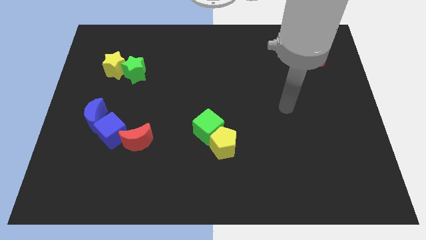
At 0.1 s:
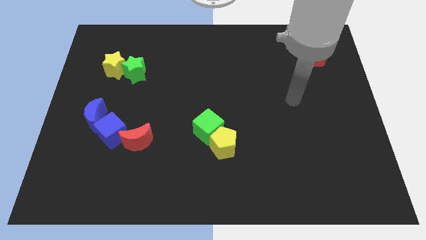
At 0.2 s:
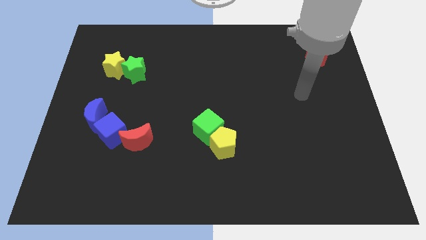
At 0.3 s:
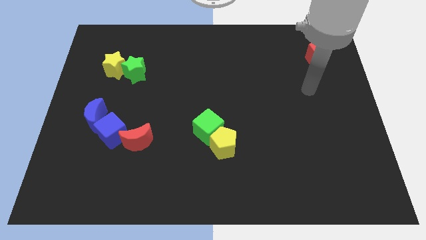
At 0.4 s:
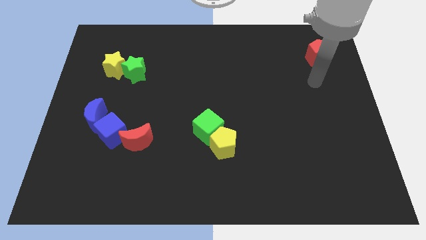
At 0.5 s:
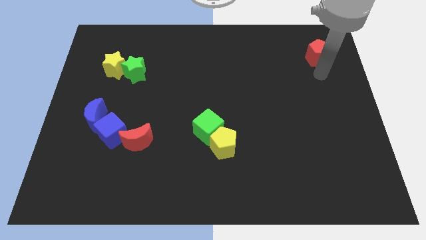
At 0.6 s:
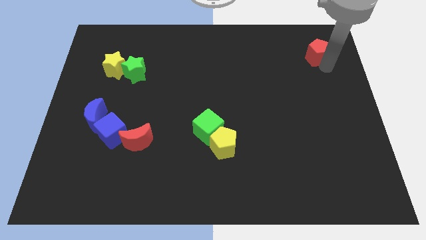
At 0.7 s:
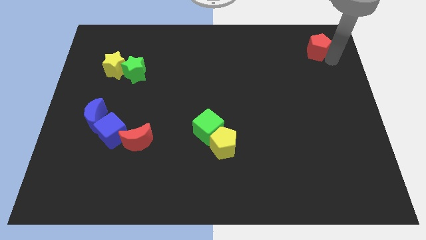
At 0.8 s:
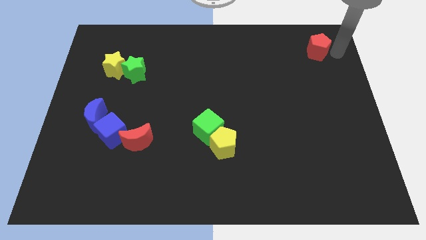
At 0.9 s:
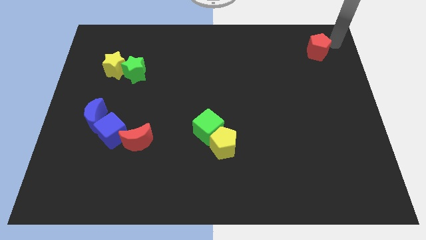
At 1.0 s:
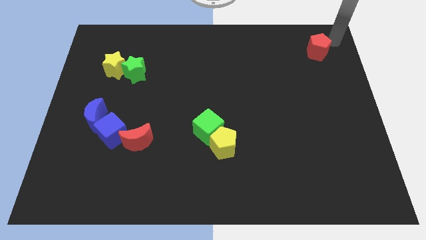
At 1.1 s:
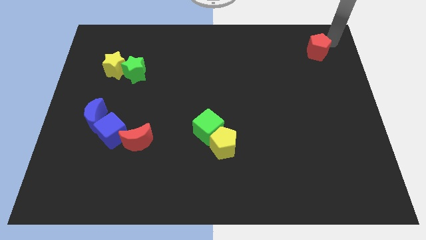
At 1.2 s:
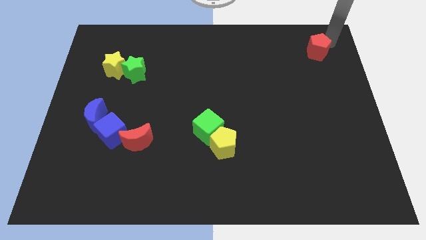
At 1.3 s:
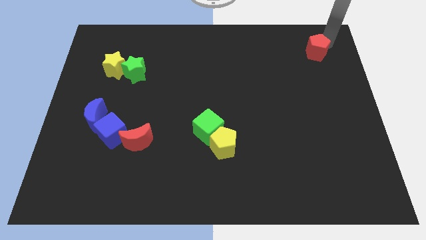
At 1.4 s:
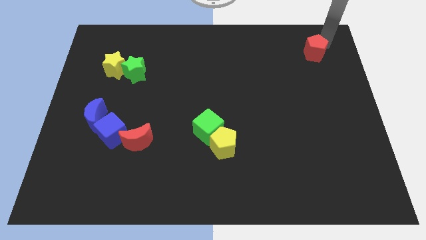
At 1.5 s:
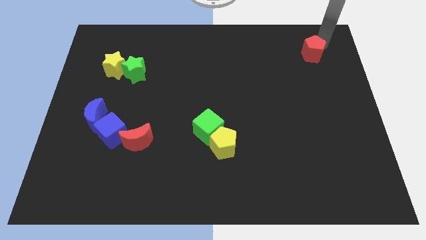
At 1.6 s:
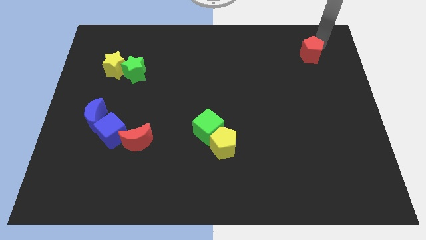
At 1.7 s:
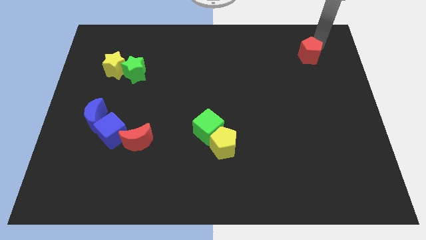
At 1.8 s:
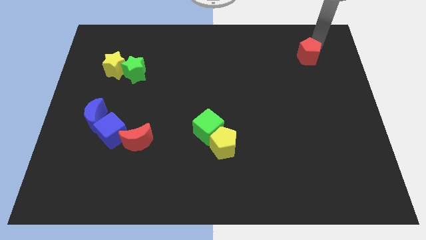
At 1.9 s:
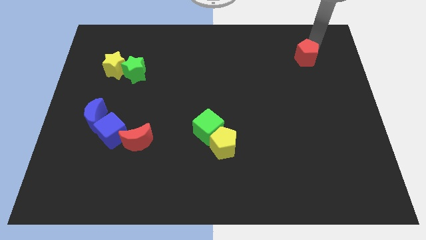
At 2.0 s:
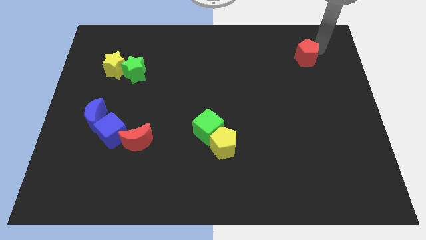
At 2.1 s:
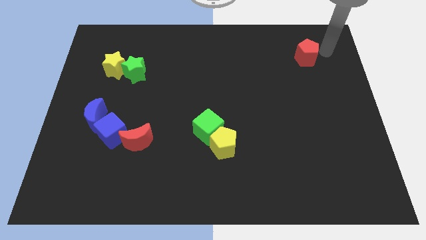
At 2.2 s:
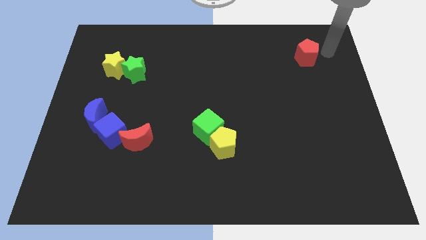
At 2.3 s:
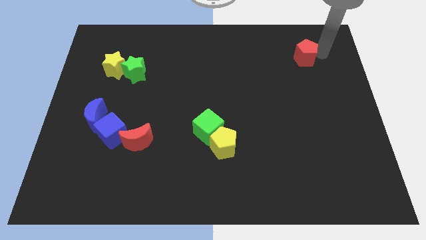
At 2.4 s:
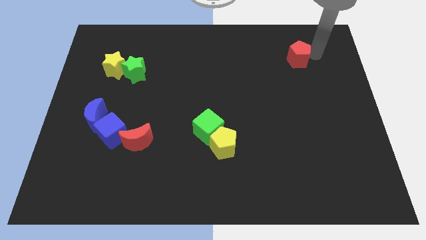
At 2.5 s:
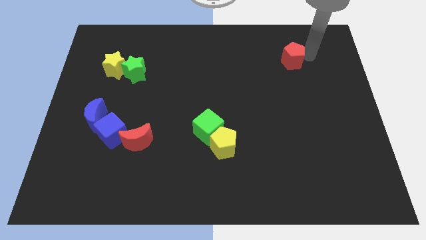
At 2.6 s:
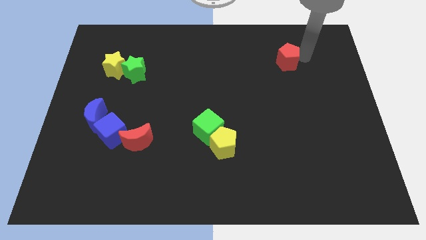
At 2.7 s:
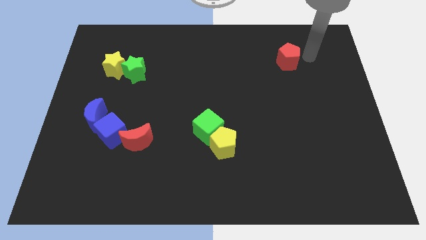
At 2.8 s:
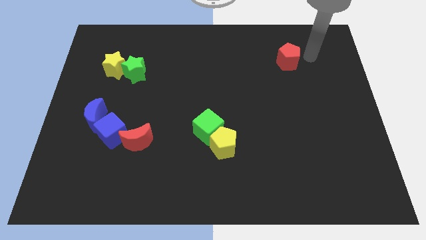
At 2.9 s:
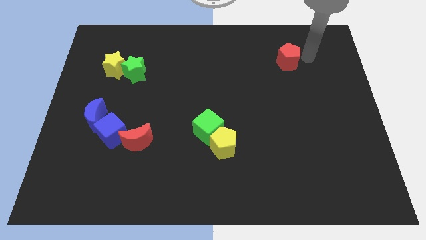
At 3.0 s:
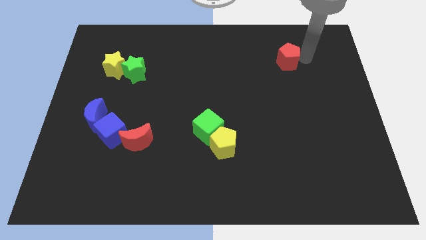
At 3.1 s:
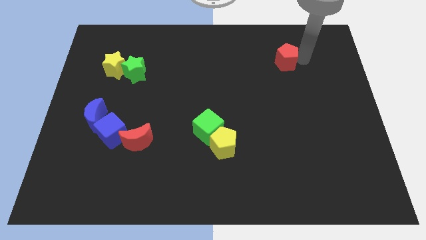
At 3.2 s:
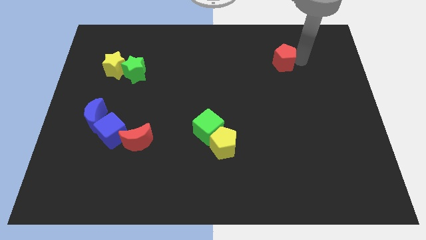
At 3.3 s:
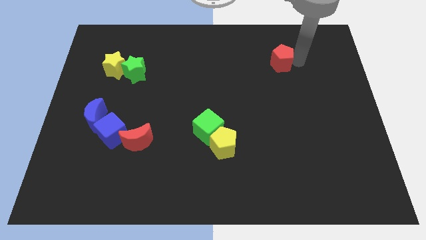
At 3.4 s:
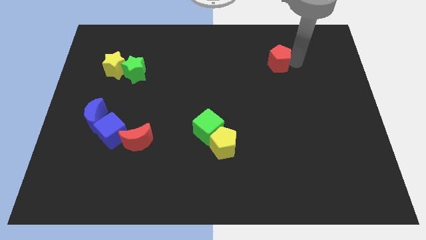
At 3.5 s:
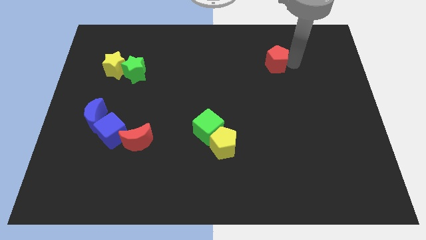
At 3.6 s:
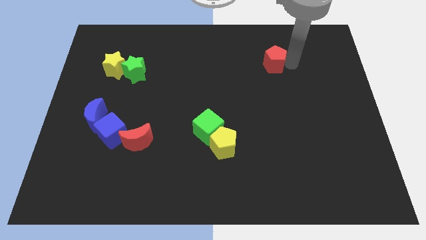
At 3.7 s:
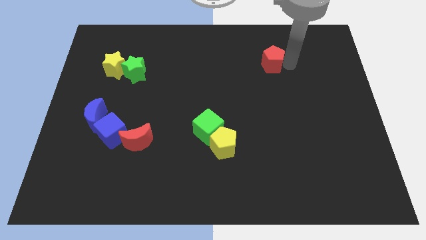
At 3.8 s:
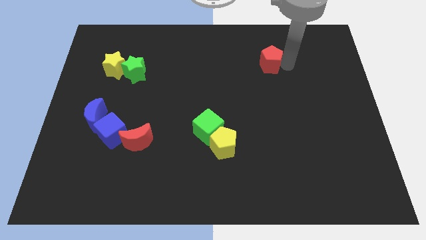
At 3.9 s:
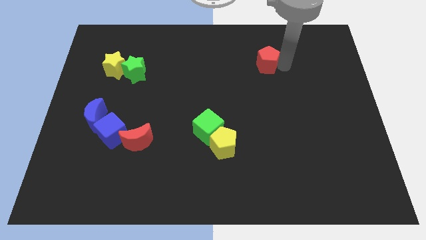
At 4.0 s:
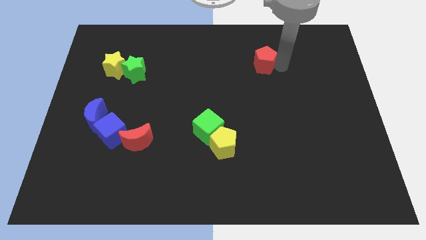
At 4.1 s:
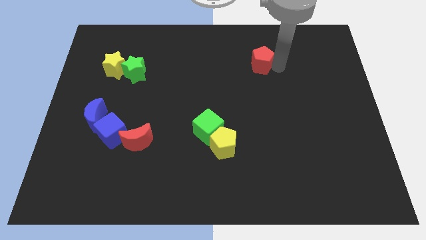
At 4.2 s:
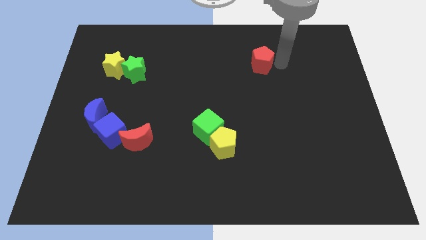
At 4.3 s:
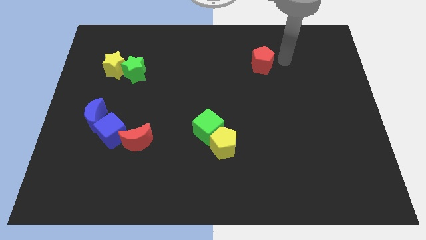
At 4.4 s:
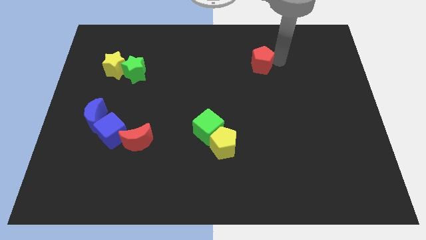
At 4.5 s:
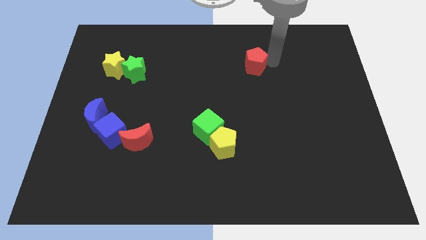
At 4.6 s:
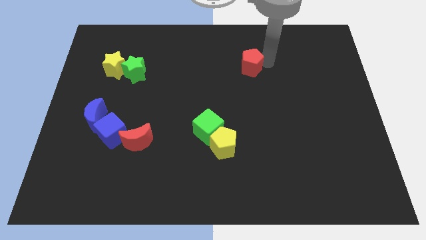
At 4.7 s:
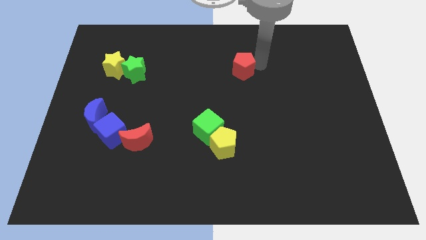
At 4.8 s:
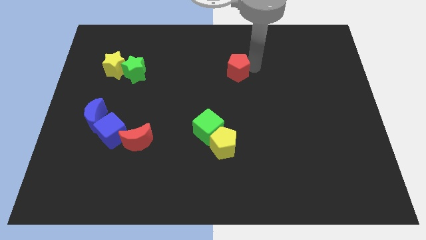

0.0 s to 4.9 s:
push the red pentagon to the left

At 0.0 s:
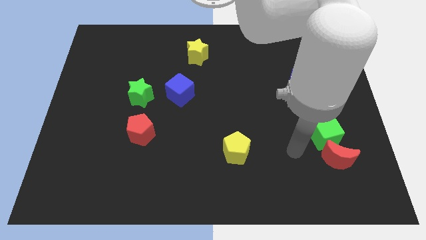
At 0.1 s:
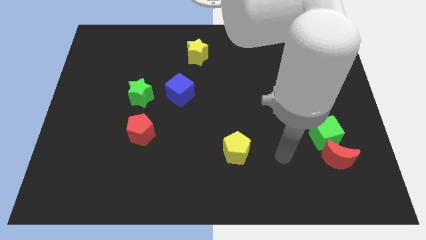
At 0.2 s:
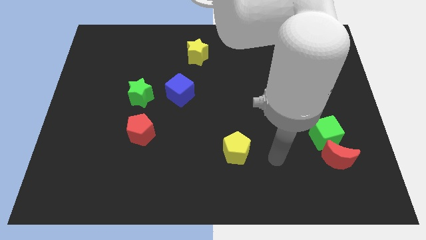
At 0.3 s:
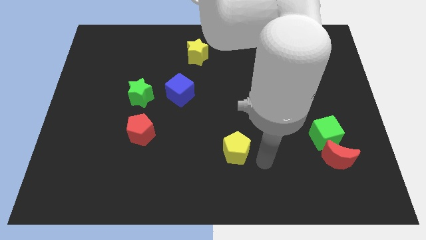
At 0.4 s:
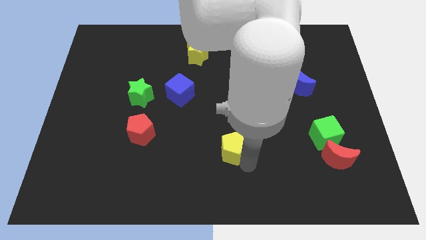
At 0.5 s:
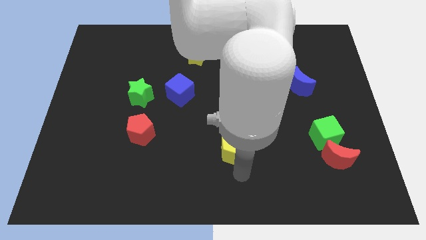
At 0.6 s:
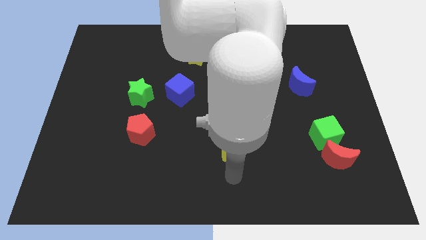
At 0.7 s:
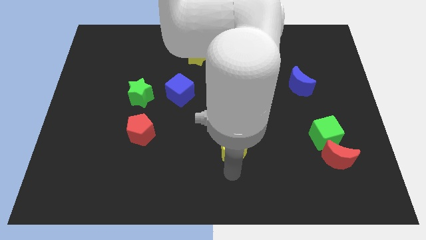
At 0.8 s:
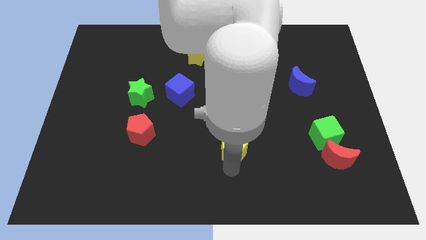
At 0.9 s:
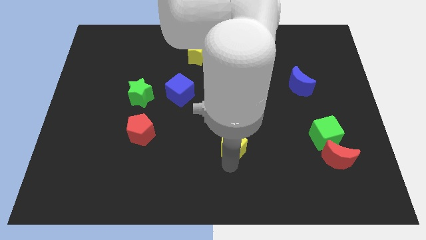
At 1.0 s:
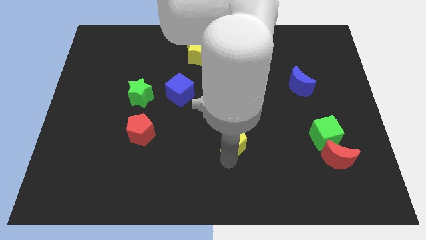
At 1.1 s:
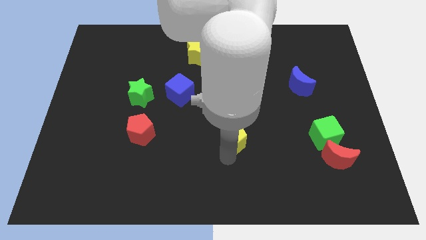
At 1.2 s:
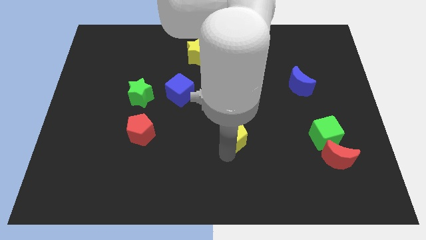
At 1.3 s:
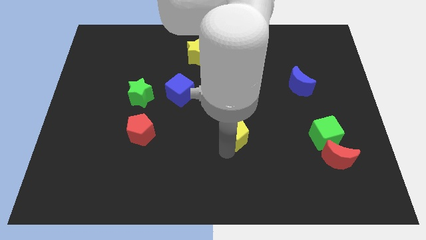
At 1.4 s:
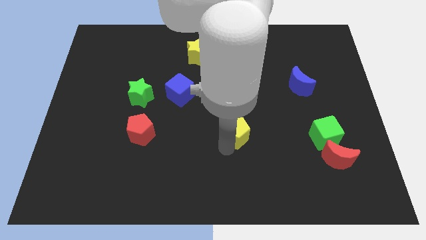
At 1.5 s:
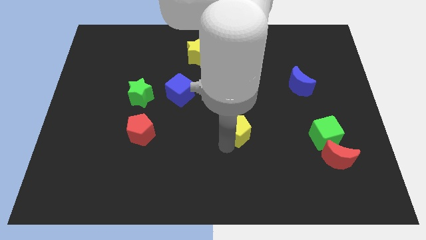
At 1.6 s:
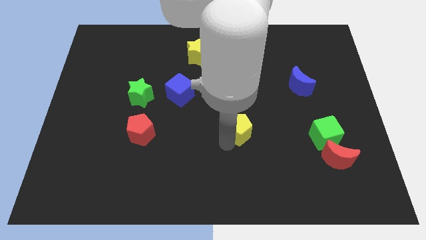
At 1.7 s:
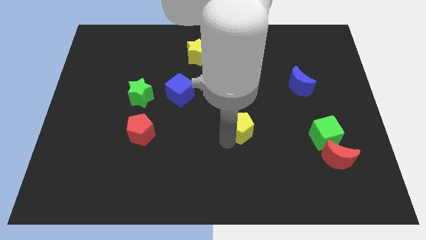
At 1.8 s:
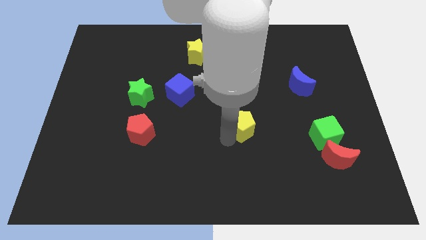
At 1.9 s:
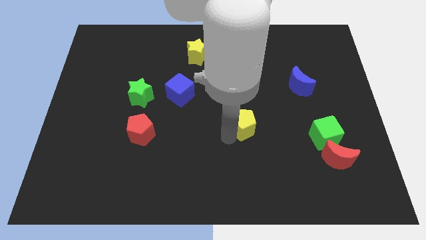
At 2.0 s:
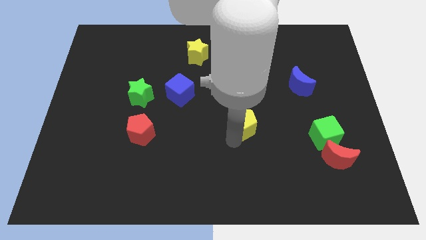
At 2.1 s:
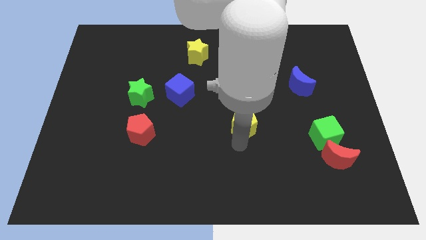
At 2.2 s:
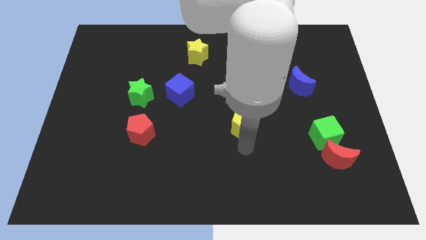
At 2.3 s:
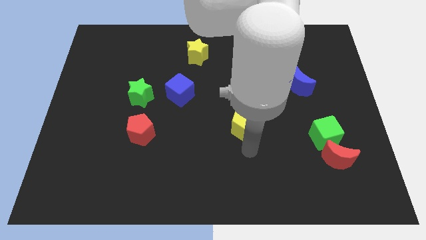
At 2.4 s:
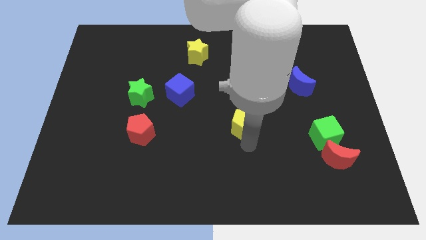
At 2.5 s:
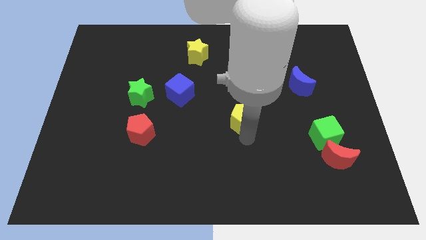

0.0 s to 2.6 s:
push the yellow pentagon upwards somewhat

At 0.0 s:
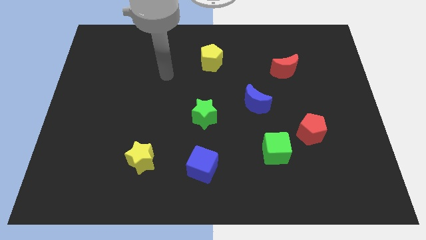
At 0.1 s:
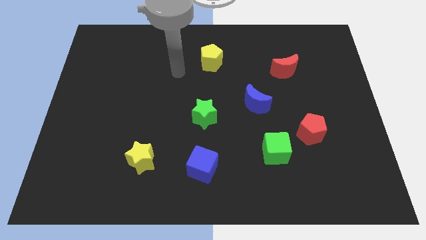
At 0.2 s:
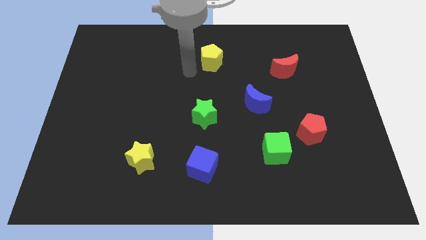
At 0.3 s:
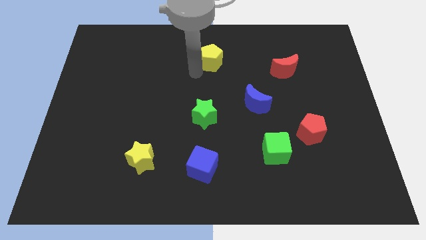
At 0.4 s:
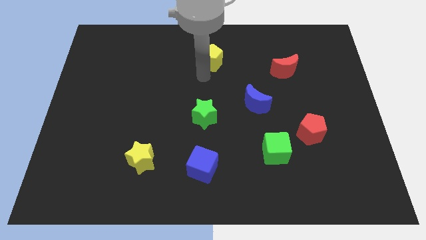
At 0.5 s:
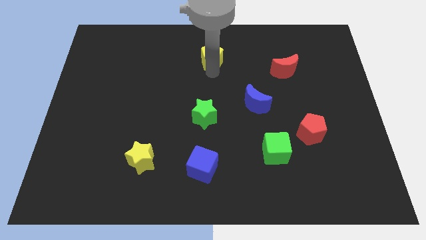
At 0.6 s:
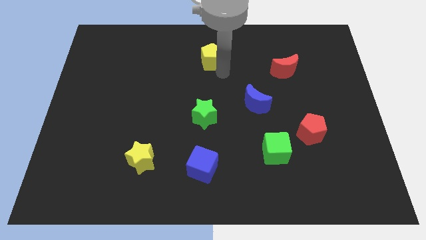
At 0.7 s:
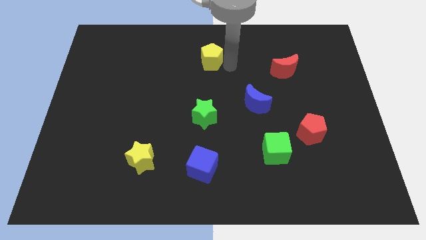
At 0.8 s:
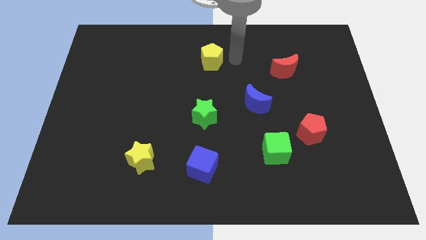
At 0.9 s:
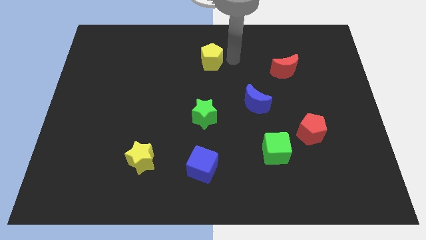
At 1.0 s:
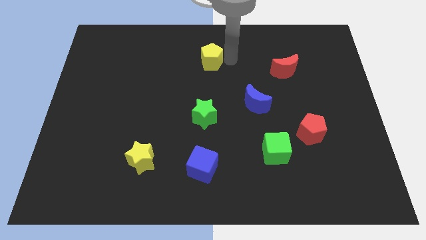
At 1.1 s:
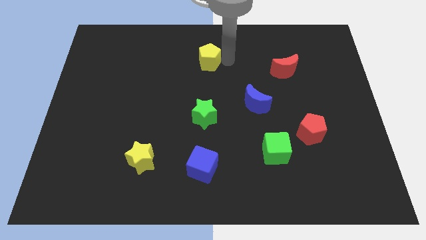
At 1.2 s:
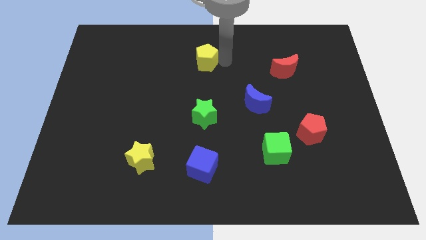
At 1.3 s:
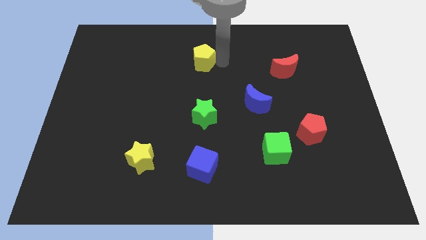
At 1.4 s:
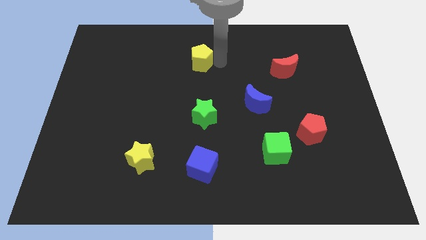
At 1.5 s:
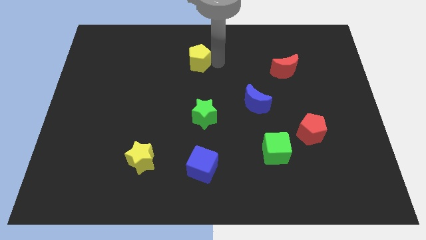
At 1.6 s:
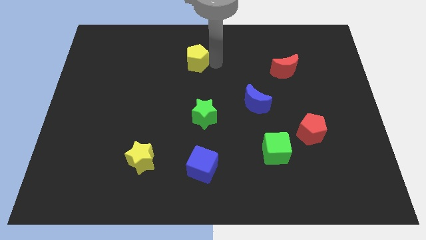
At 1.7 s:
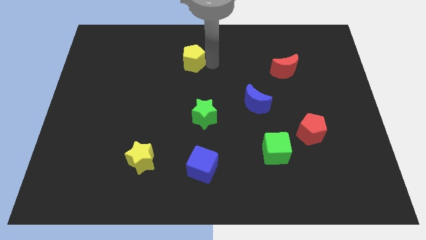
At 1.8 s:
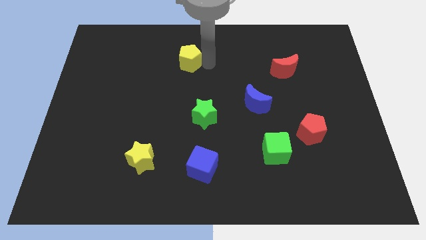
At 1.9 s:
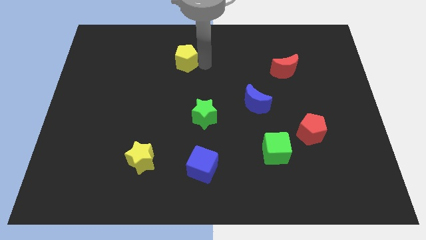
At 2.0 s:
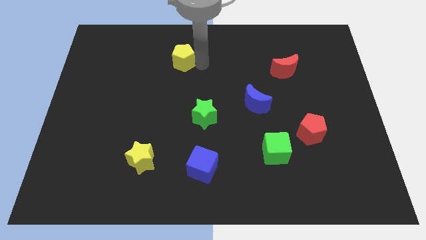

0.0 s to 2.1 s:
slide the yellow pentagon slightly to the left
